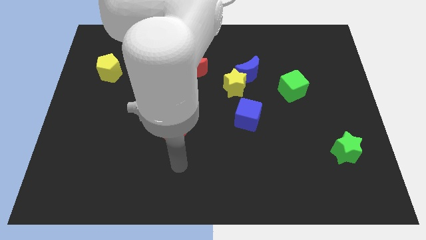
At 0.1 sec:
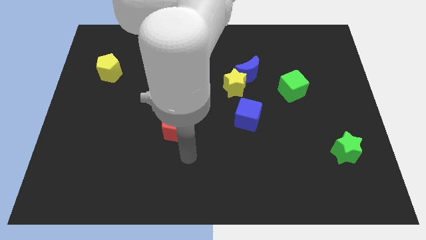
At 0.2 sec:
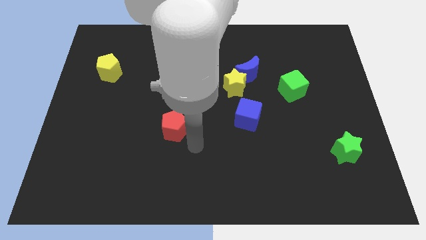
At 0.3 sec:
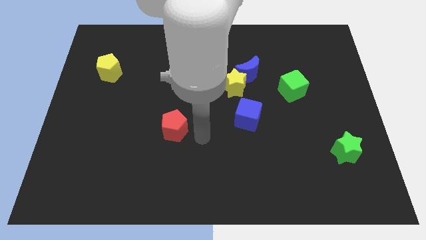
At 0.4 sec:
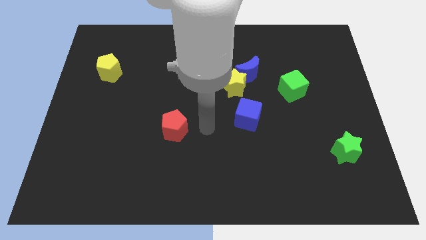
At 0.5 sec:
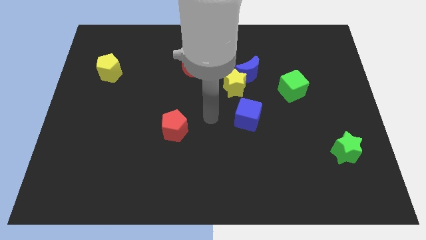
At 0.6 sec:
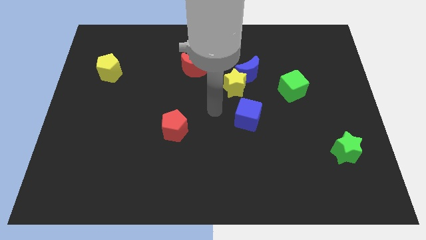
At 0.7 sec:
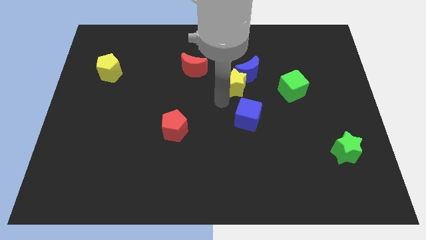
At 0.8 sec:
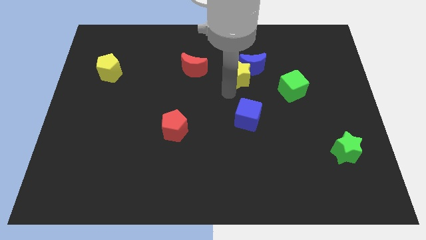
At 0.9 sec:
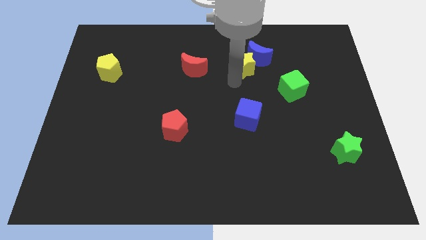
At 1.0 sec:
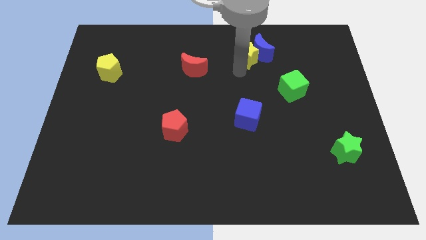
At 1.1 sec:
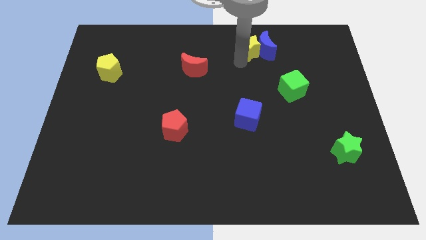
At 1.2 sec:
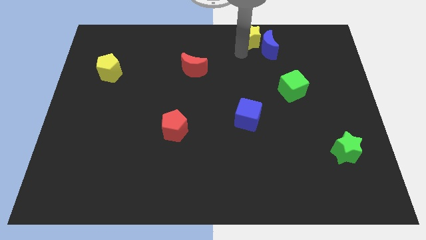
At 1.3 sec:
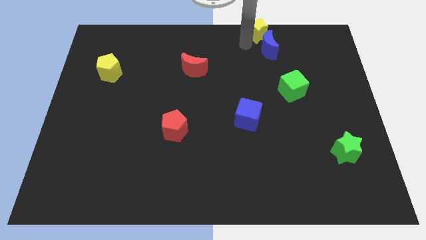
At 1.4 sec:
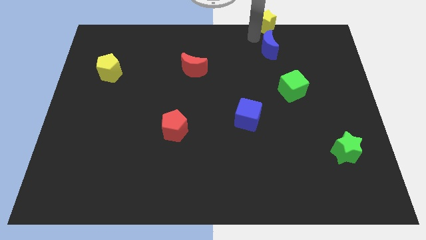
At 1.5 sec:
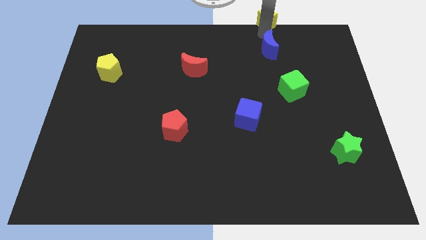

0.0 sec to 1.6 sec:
separate the blue moon from the yellow star

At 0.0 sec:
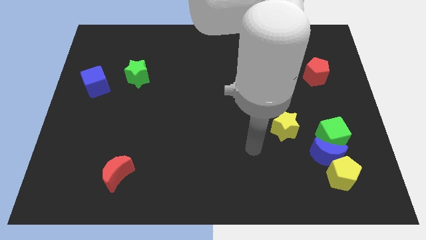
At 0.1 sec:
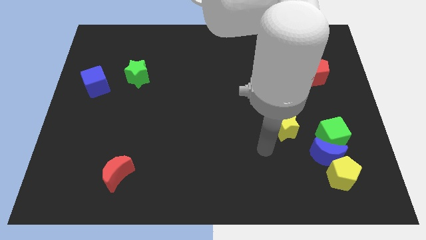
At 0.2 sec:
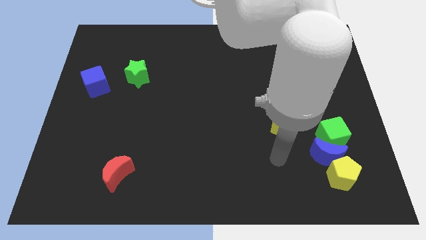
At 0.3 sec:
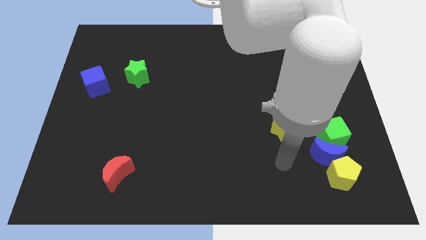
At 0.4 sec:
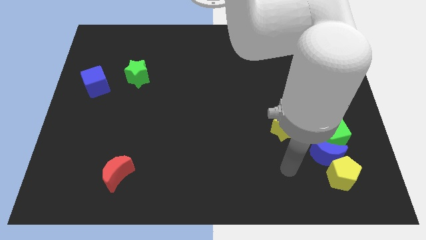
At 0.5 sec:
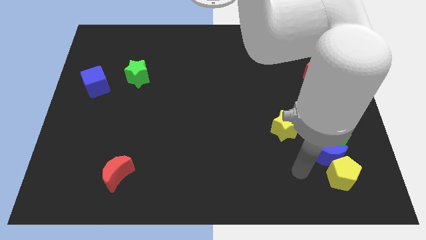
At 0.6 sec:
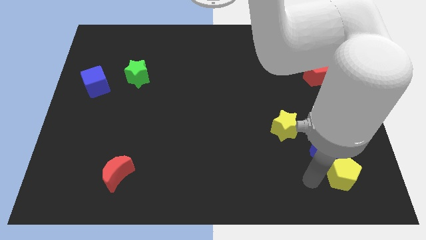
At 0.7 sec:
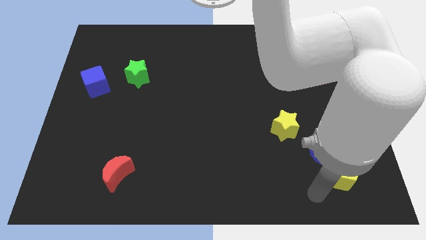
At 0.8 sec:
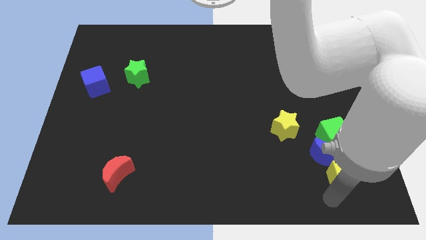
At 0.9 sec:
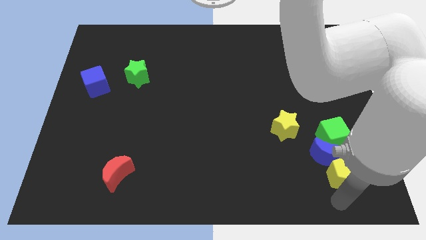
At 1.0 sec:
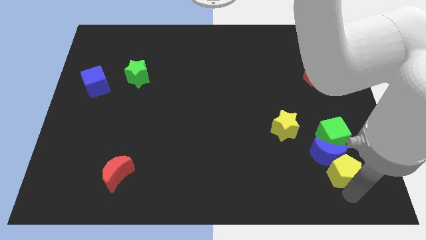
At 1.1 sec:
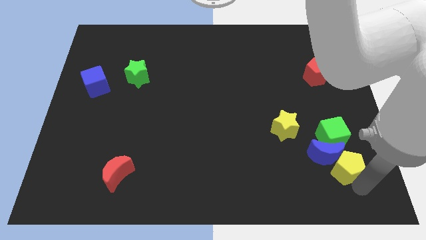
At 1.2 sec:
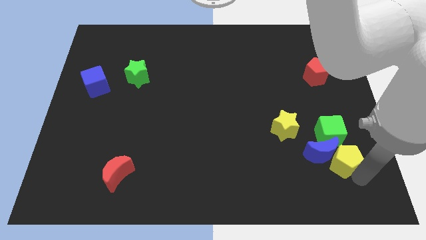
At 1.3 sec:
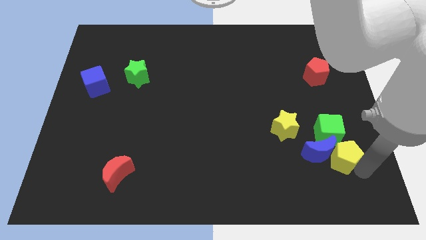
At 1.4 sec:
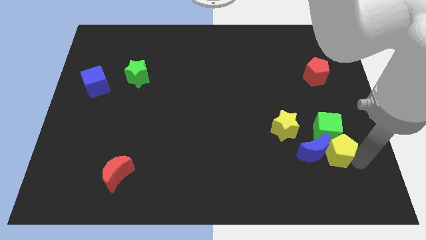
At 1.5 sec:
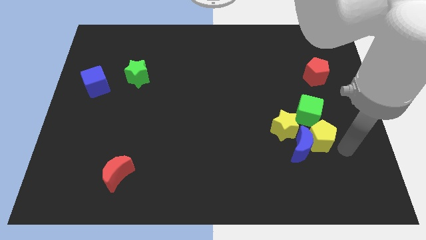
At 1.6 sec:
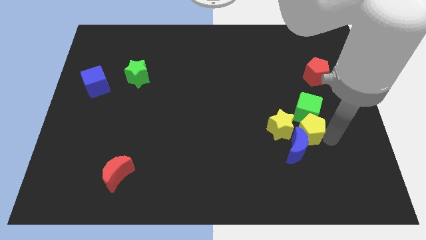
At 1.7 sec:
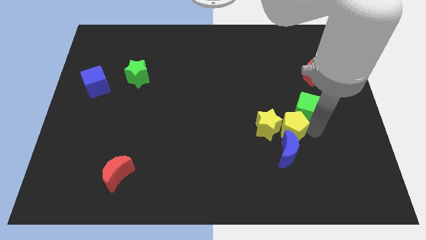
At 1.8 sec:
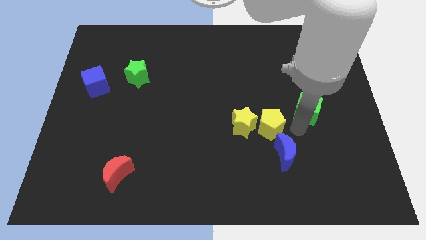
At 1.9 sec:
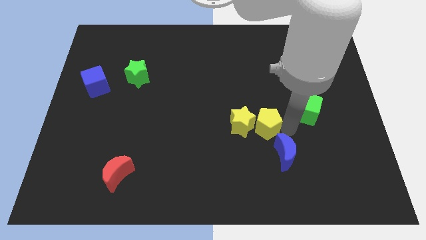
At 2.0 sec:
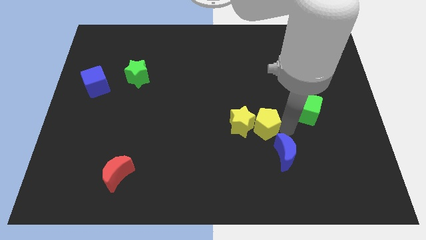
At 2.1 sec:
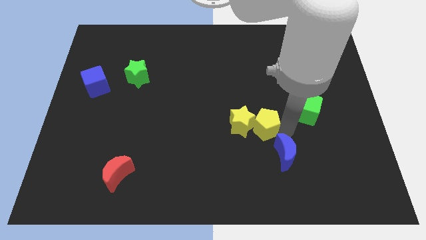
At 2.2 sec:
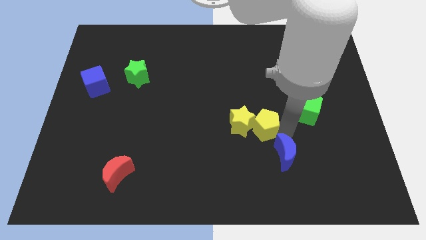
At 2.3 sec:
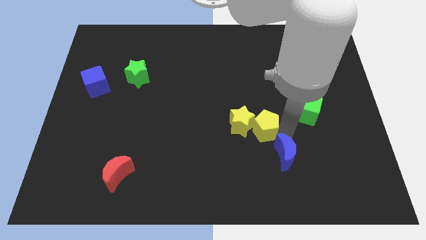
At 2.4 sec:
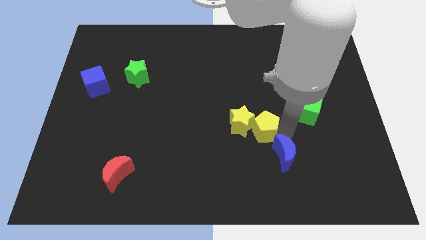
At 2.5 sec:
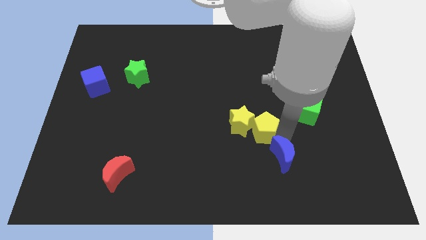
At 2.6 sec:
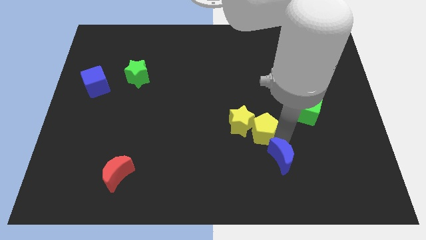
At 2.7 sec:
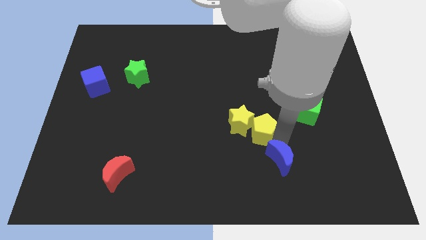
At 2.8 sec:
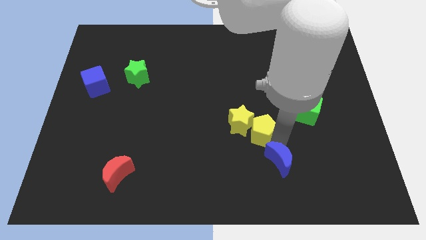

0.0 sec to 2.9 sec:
separate the blue moon from the green cube and yellow pentagon

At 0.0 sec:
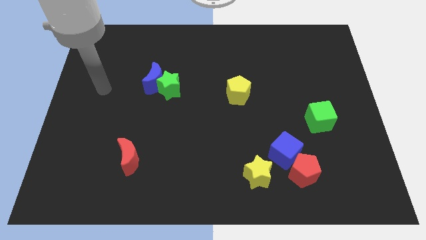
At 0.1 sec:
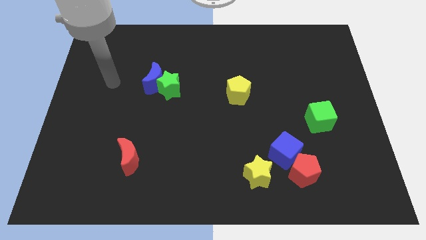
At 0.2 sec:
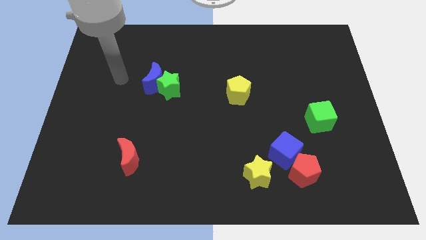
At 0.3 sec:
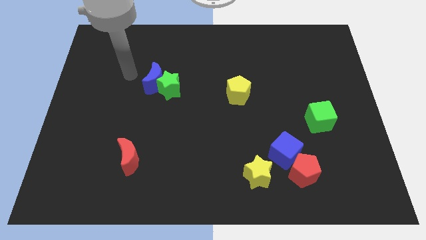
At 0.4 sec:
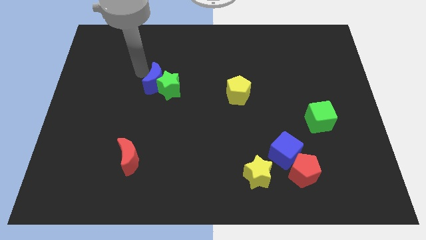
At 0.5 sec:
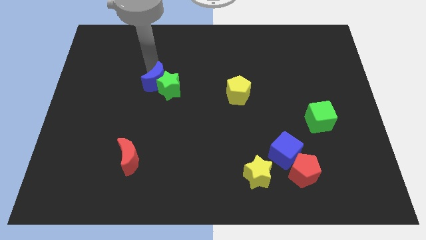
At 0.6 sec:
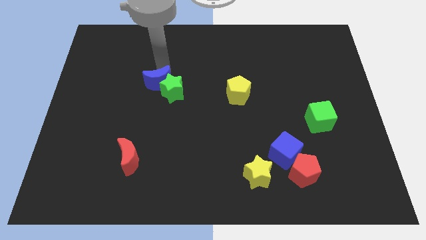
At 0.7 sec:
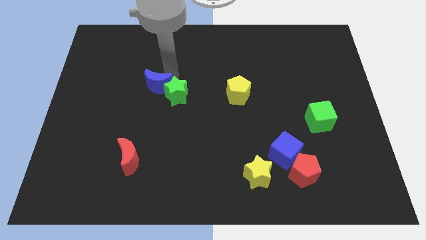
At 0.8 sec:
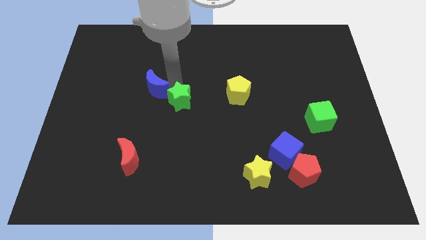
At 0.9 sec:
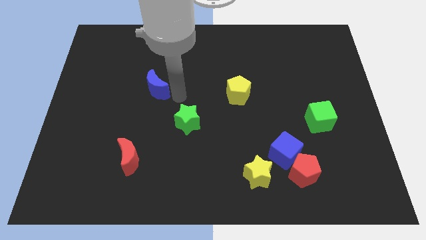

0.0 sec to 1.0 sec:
pull the blue moon apart from the green star

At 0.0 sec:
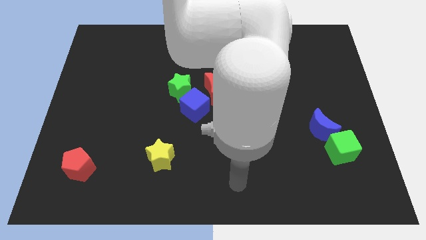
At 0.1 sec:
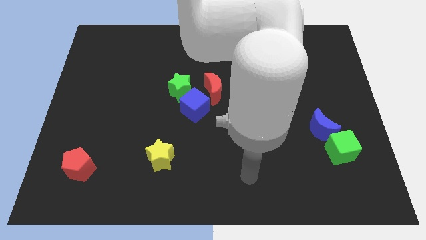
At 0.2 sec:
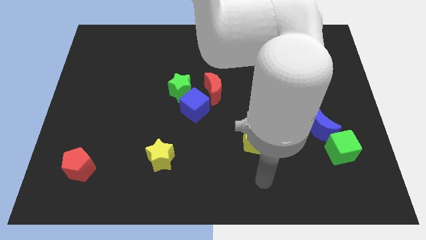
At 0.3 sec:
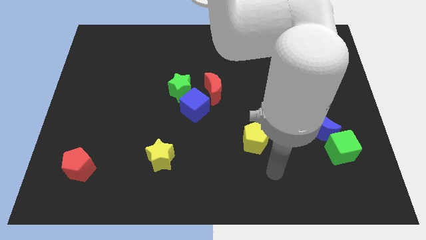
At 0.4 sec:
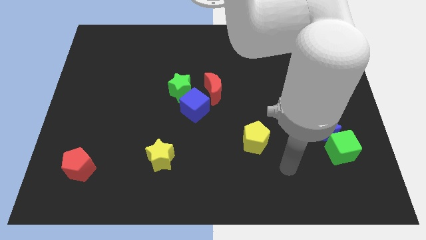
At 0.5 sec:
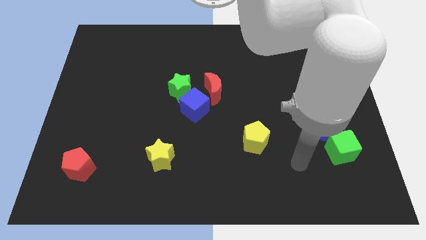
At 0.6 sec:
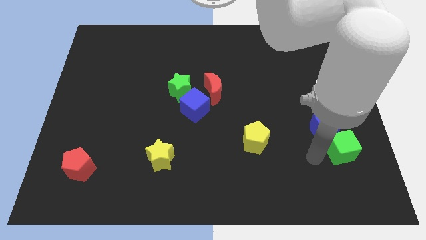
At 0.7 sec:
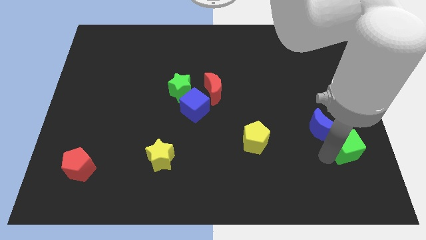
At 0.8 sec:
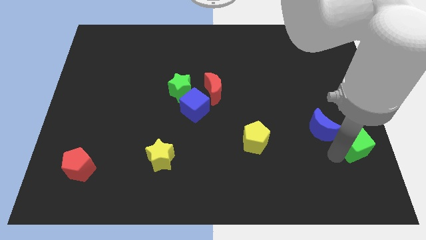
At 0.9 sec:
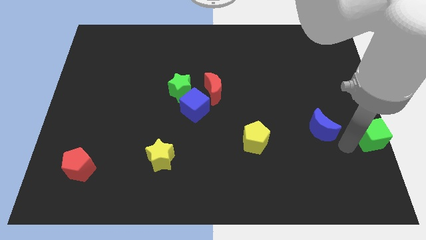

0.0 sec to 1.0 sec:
separate the blue moon from the green cube

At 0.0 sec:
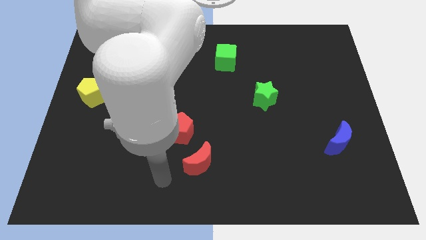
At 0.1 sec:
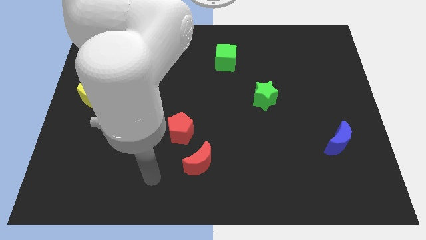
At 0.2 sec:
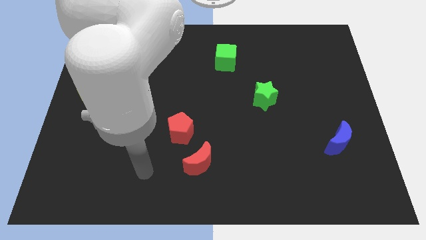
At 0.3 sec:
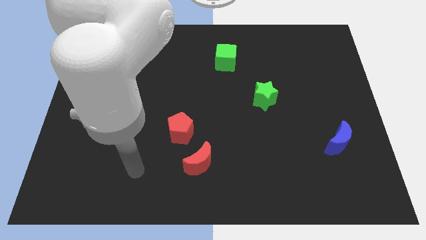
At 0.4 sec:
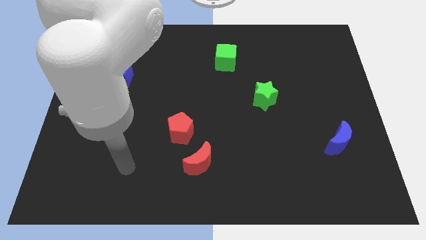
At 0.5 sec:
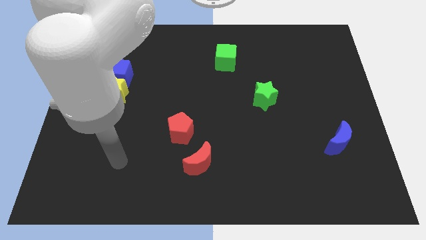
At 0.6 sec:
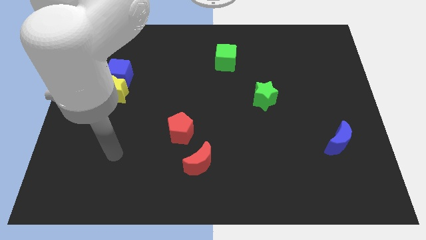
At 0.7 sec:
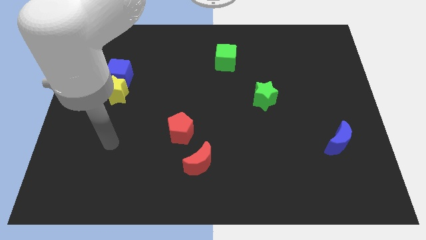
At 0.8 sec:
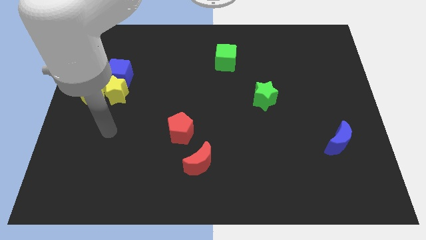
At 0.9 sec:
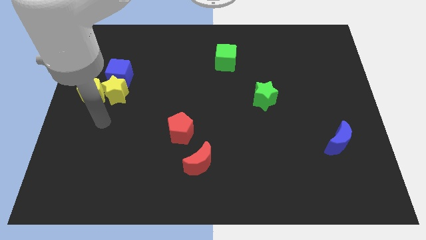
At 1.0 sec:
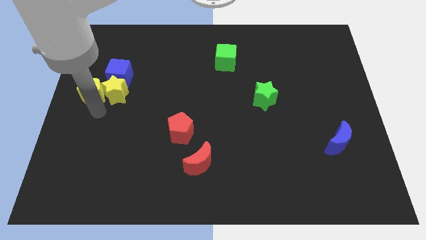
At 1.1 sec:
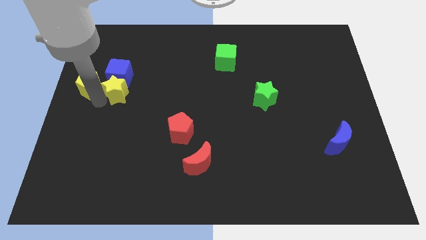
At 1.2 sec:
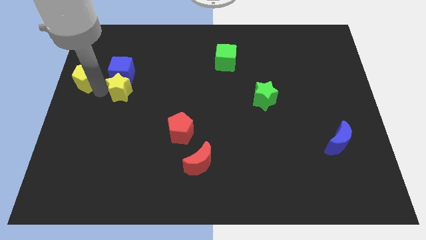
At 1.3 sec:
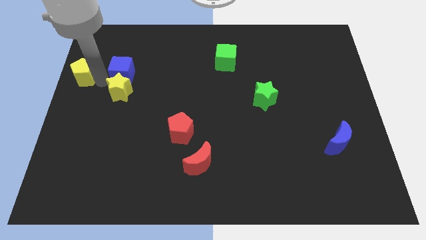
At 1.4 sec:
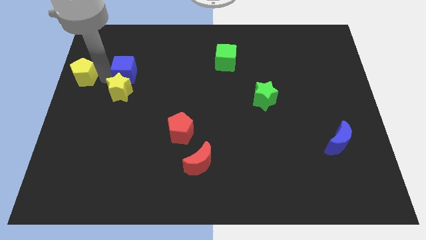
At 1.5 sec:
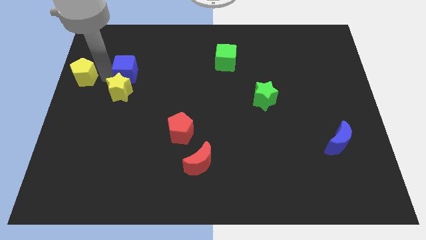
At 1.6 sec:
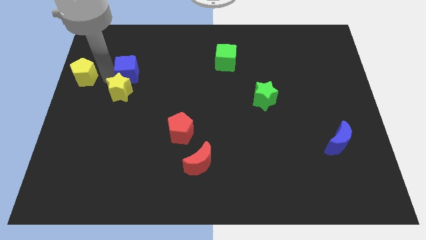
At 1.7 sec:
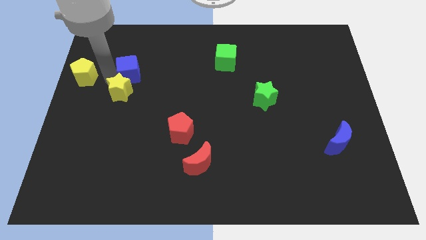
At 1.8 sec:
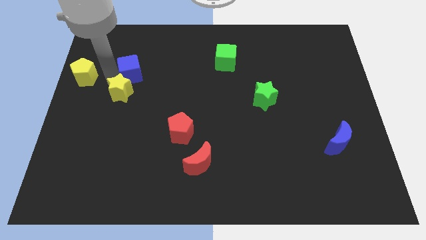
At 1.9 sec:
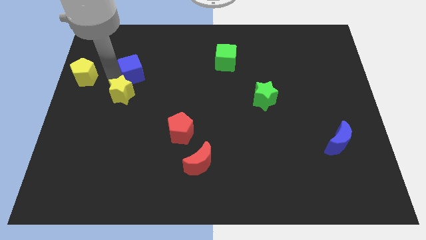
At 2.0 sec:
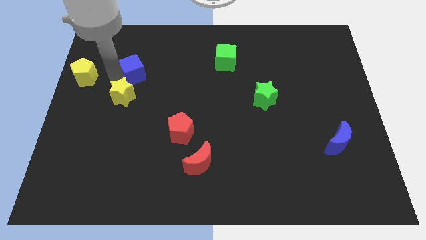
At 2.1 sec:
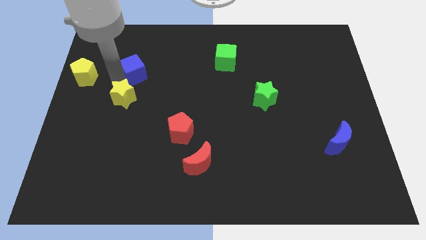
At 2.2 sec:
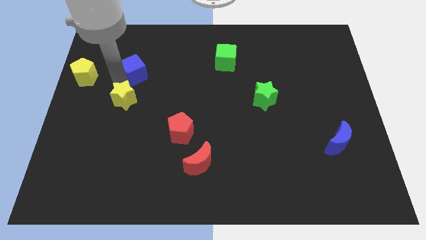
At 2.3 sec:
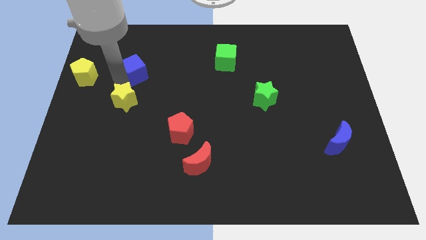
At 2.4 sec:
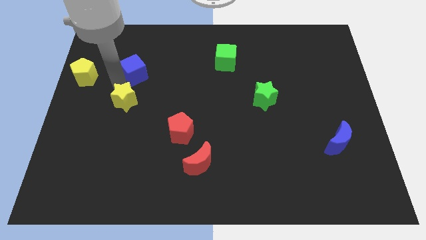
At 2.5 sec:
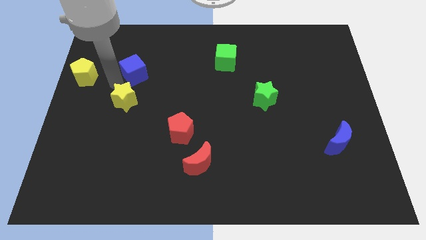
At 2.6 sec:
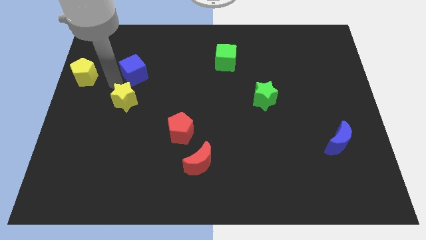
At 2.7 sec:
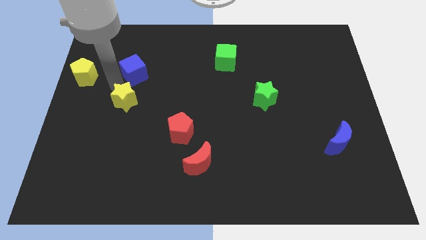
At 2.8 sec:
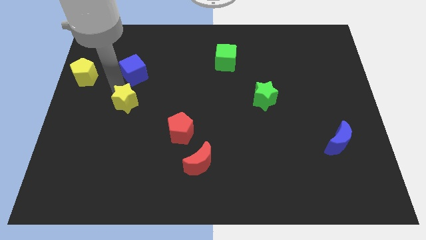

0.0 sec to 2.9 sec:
separate the yellow star from the yellow pentagon and blue cube
